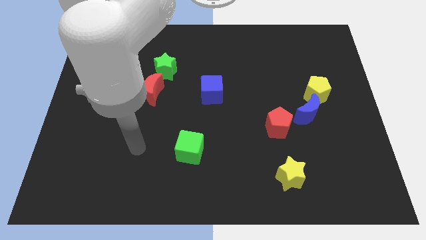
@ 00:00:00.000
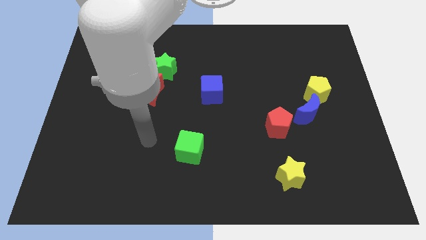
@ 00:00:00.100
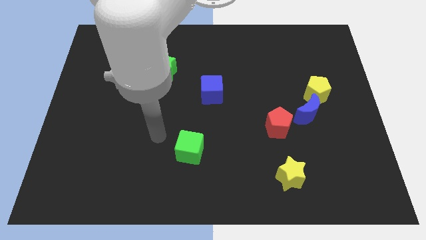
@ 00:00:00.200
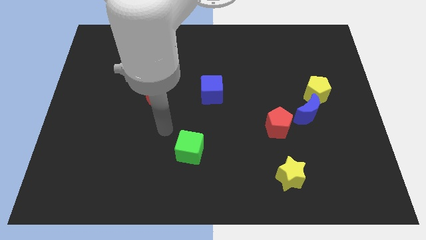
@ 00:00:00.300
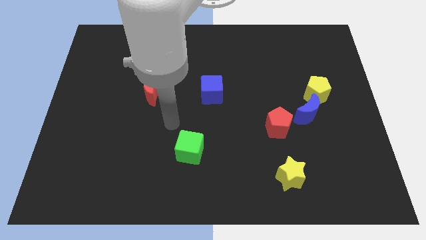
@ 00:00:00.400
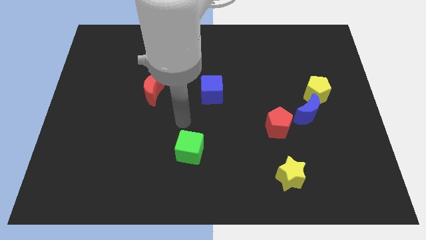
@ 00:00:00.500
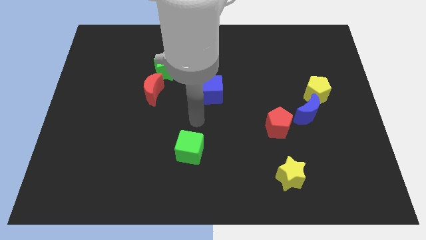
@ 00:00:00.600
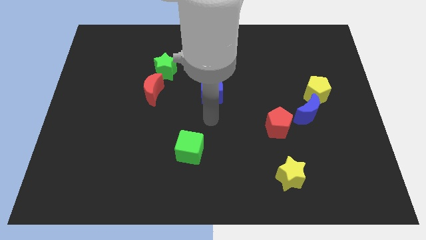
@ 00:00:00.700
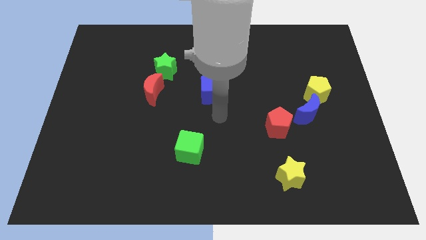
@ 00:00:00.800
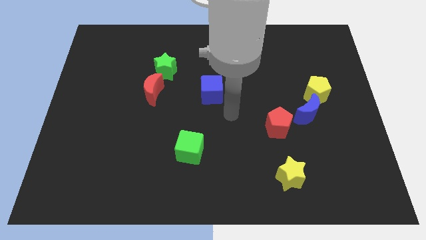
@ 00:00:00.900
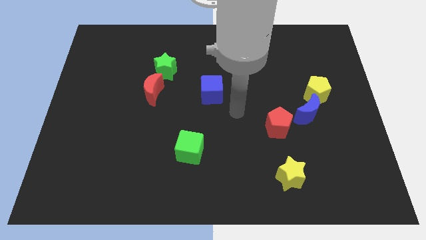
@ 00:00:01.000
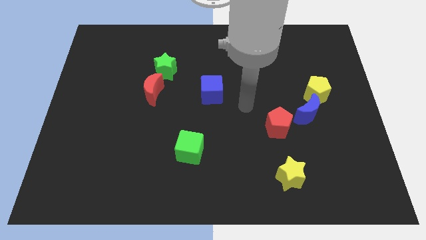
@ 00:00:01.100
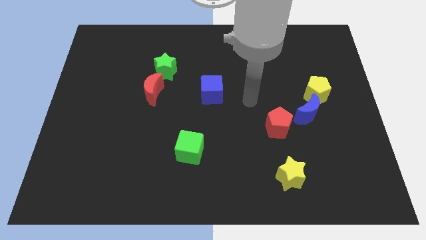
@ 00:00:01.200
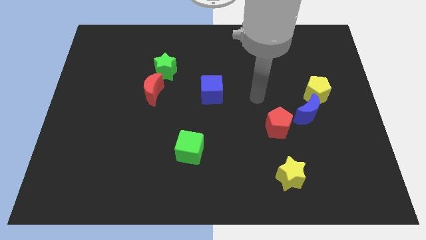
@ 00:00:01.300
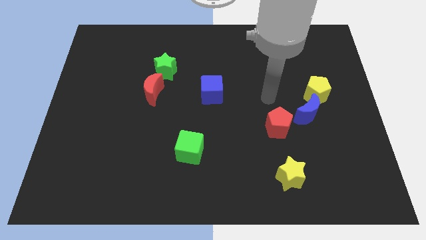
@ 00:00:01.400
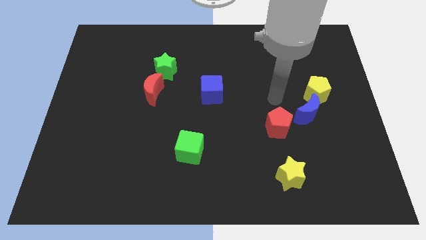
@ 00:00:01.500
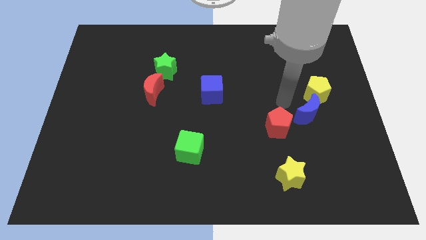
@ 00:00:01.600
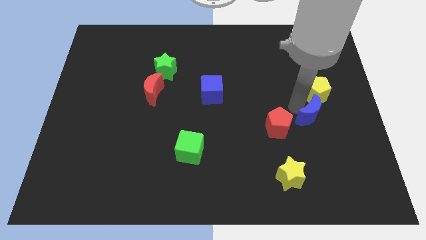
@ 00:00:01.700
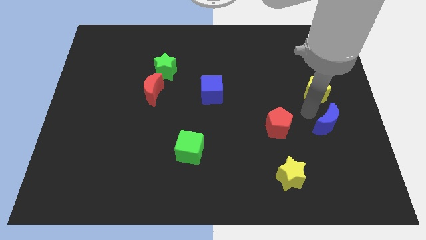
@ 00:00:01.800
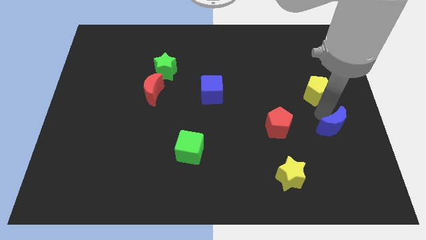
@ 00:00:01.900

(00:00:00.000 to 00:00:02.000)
separate the yellow pentagon from the blue moon

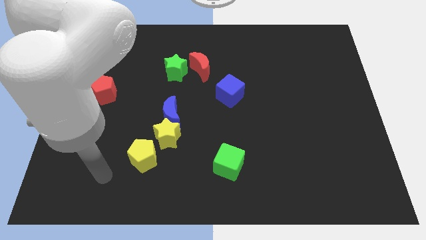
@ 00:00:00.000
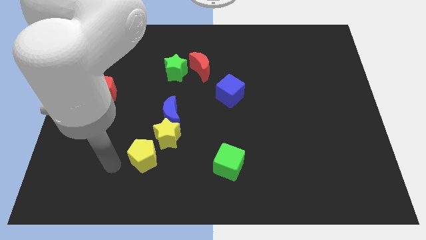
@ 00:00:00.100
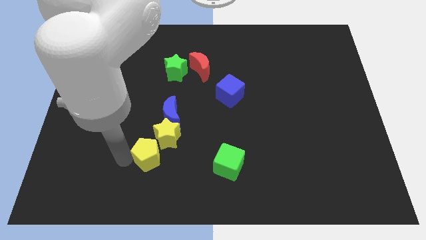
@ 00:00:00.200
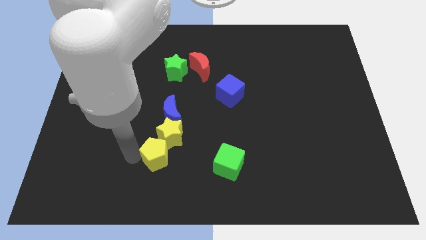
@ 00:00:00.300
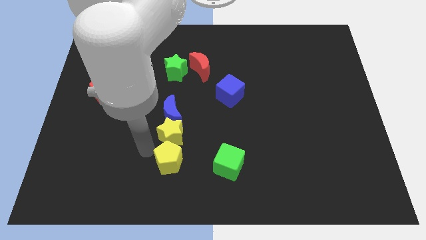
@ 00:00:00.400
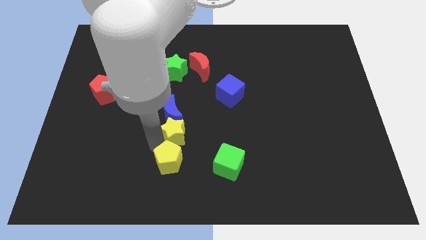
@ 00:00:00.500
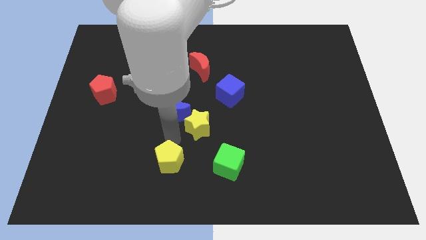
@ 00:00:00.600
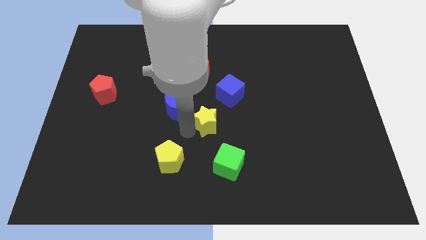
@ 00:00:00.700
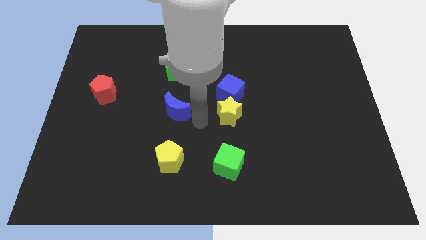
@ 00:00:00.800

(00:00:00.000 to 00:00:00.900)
separate the blue moon from the yellow star

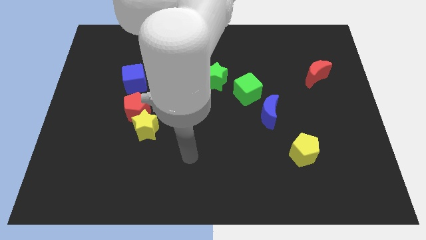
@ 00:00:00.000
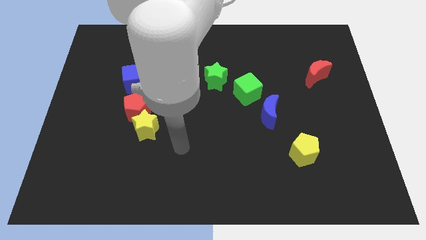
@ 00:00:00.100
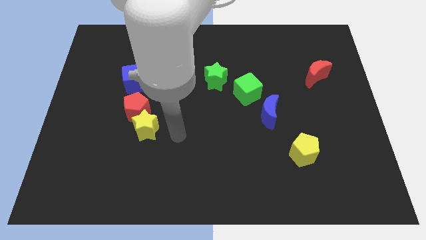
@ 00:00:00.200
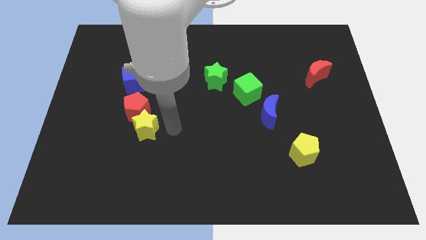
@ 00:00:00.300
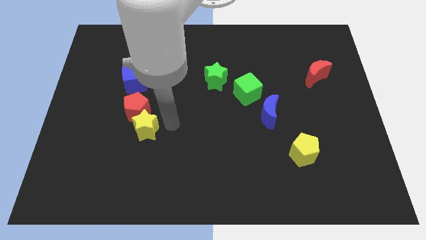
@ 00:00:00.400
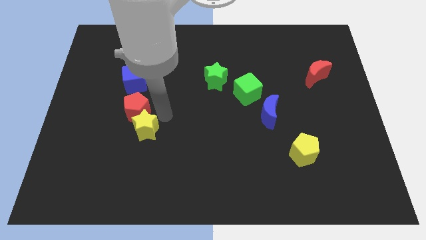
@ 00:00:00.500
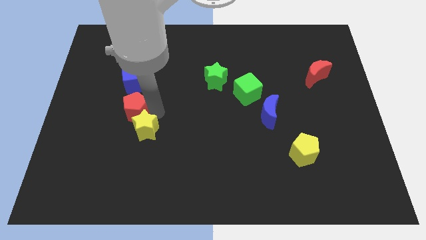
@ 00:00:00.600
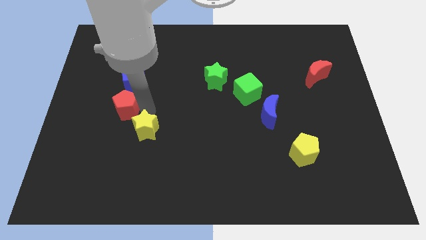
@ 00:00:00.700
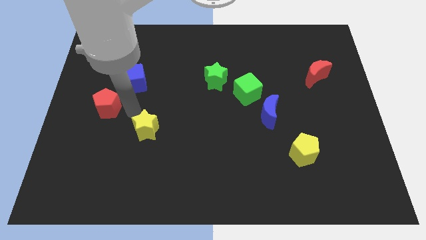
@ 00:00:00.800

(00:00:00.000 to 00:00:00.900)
move the yellow star away from the red pentagon

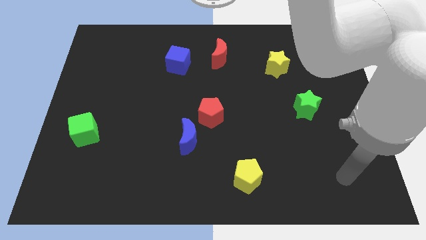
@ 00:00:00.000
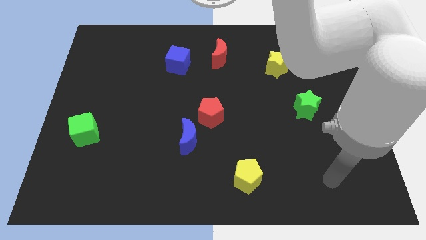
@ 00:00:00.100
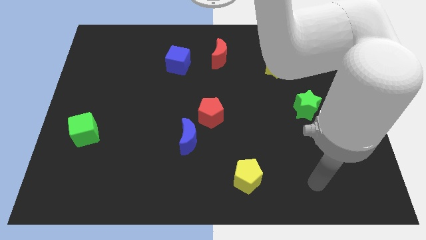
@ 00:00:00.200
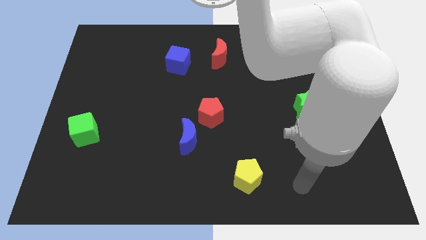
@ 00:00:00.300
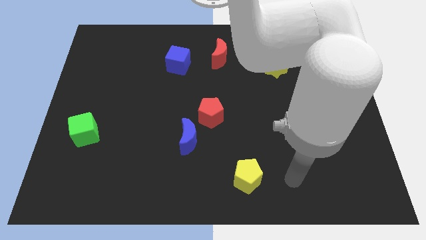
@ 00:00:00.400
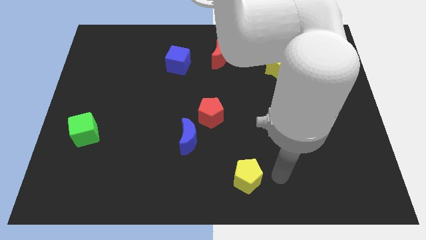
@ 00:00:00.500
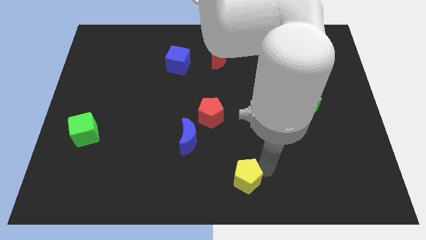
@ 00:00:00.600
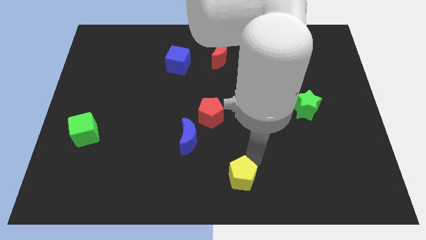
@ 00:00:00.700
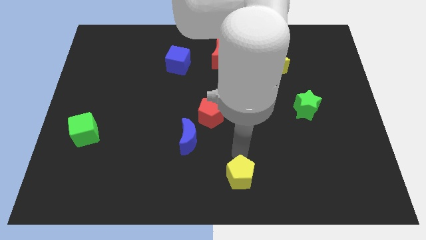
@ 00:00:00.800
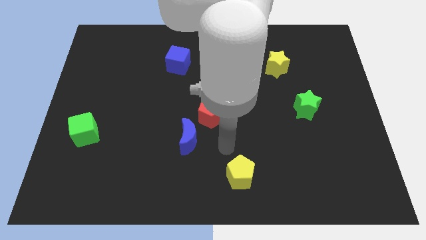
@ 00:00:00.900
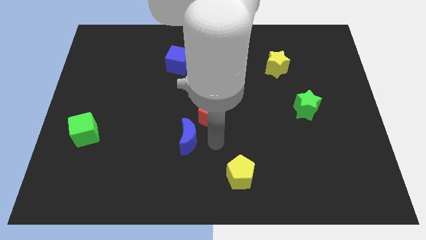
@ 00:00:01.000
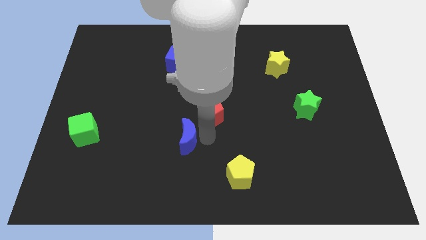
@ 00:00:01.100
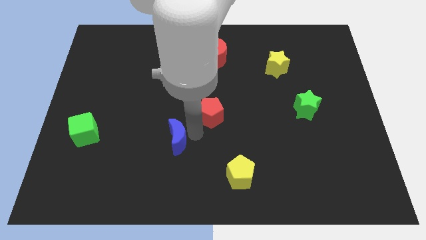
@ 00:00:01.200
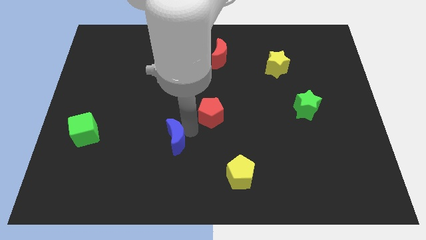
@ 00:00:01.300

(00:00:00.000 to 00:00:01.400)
move the red pentagon away from the blue moon

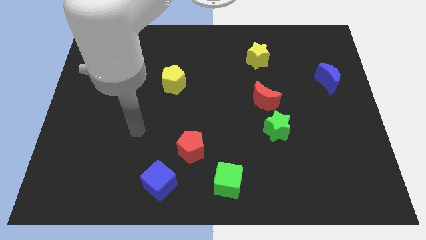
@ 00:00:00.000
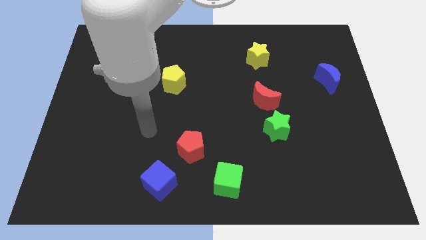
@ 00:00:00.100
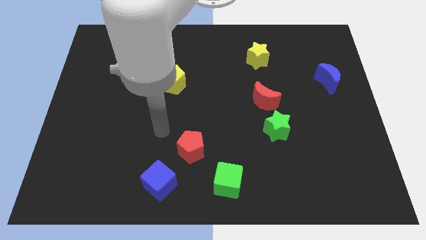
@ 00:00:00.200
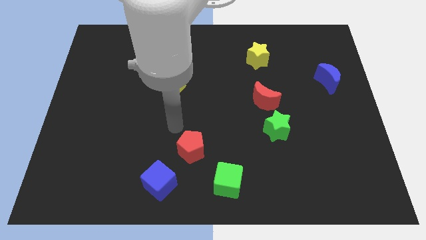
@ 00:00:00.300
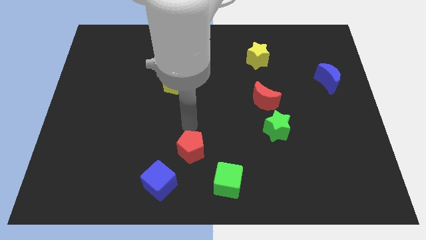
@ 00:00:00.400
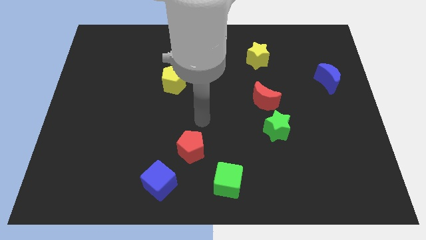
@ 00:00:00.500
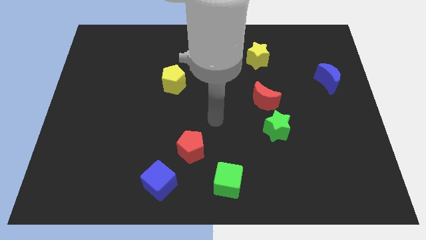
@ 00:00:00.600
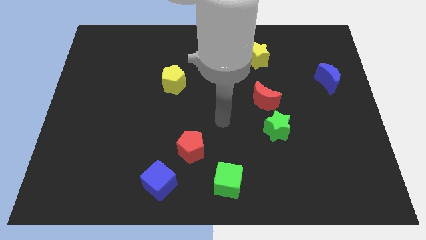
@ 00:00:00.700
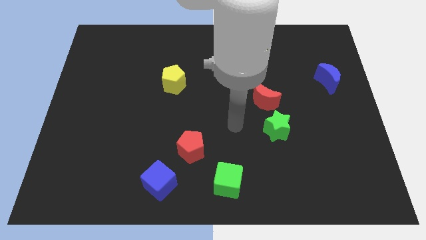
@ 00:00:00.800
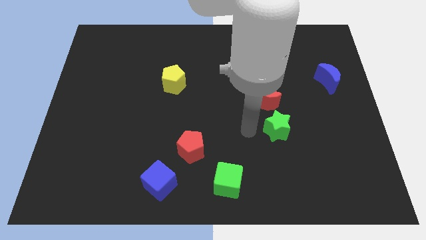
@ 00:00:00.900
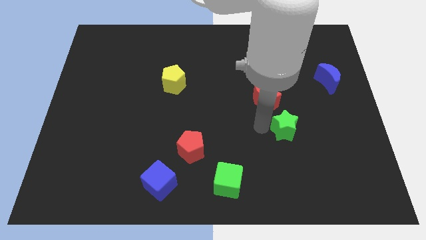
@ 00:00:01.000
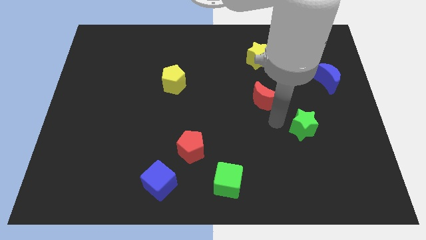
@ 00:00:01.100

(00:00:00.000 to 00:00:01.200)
move the red moon away from the green star

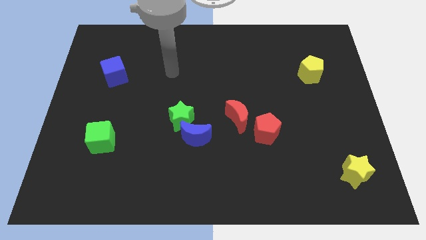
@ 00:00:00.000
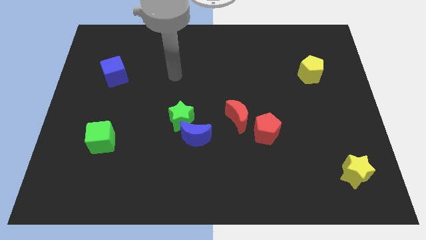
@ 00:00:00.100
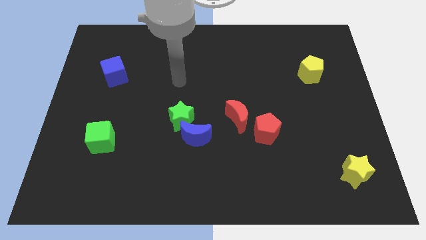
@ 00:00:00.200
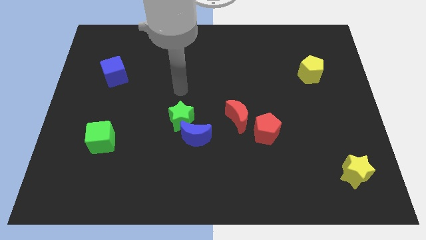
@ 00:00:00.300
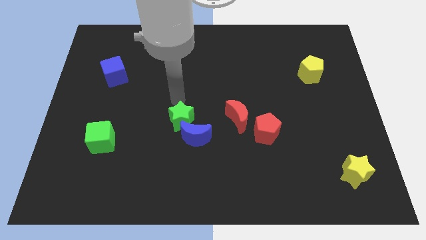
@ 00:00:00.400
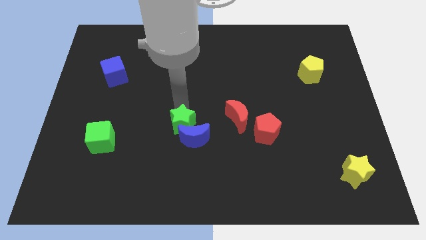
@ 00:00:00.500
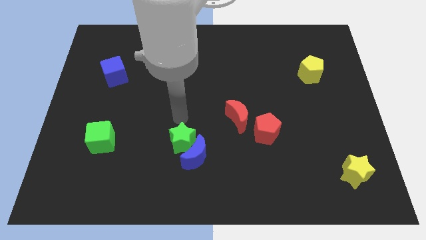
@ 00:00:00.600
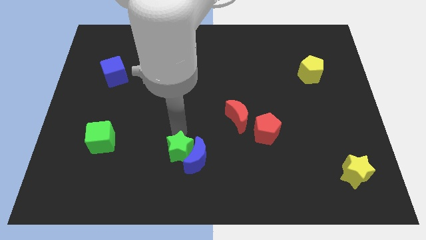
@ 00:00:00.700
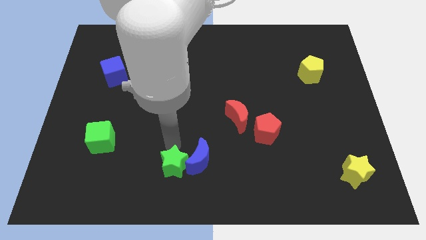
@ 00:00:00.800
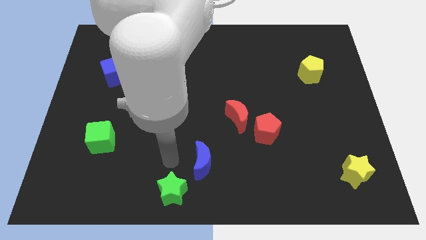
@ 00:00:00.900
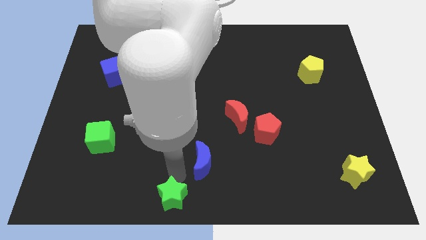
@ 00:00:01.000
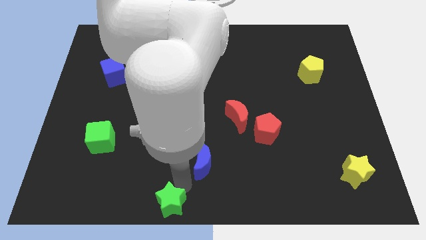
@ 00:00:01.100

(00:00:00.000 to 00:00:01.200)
separate the blue moon from the green star

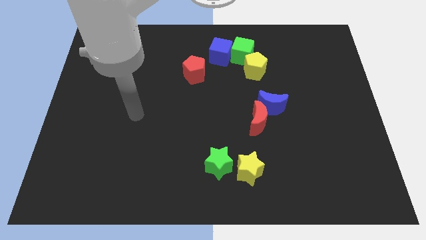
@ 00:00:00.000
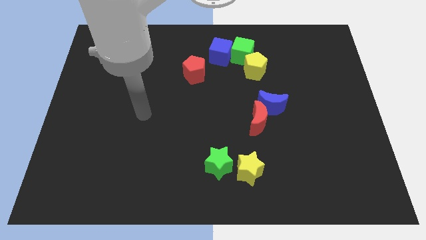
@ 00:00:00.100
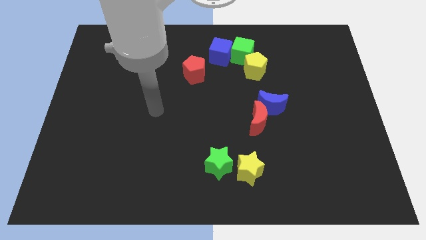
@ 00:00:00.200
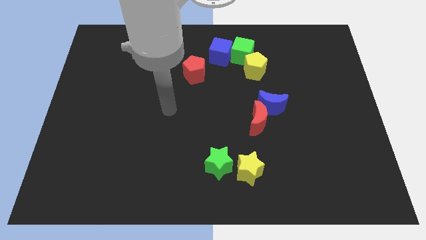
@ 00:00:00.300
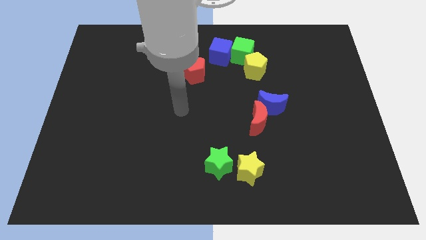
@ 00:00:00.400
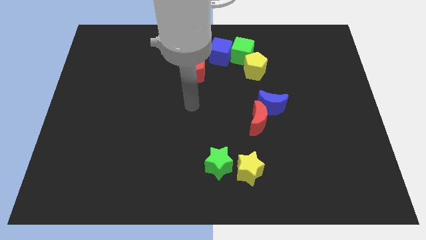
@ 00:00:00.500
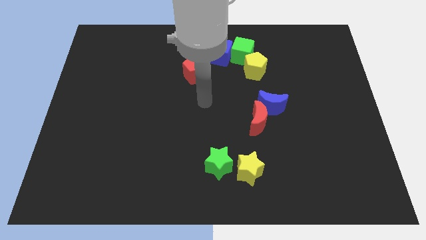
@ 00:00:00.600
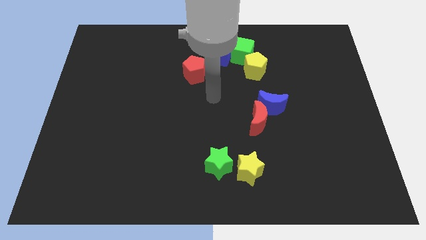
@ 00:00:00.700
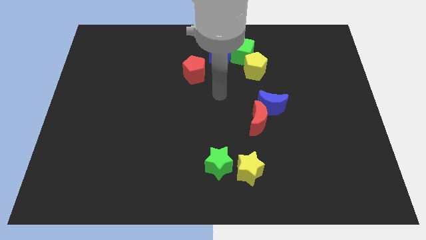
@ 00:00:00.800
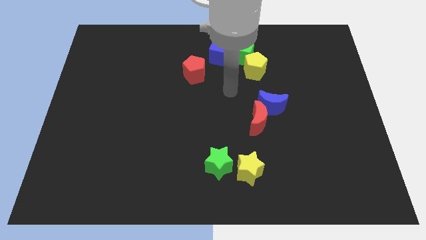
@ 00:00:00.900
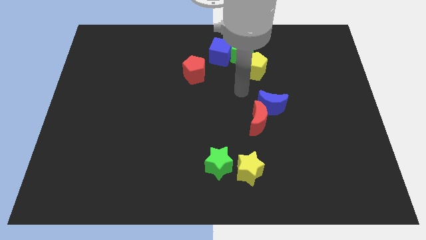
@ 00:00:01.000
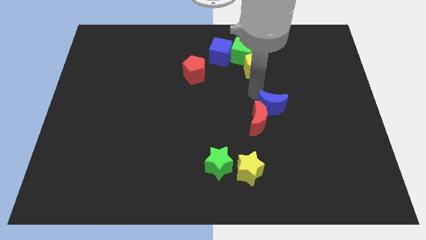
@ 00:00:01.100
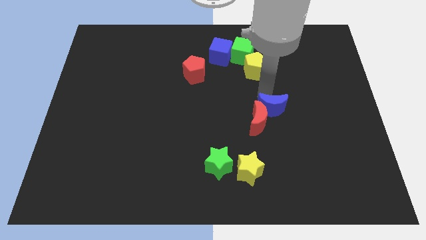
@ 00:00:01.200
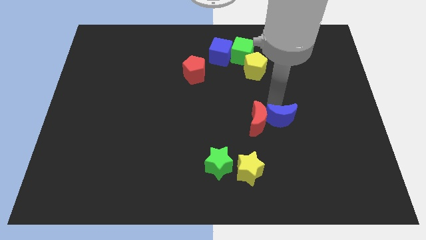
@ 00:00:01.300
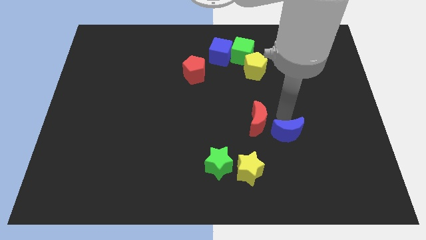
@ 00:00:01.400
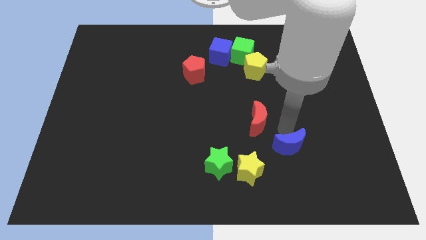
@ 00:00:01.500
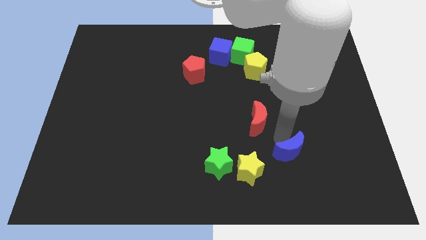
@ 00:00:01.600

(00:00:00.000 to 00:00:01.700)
separate the red moon from the blue moon
